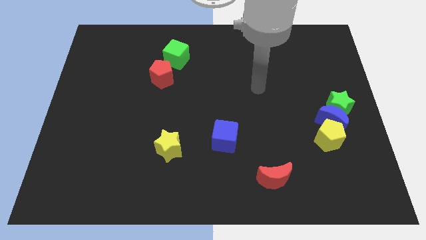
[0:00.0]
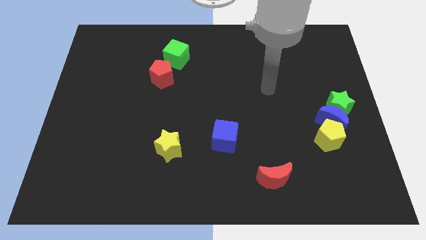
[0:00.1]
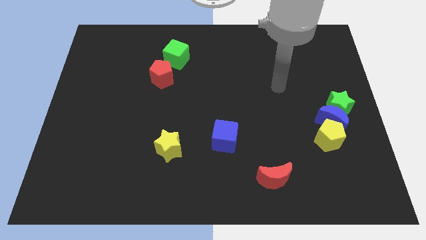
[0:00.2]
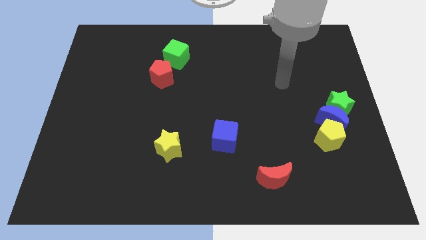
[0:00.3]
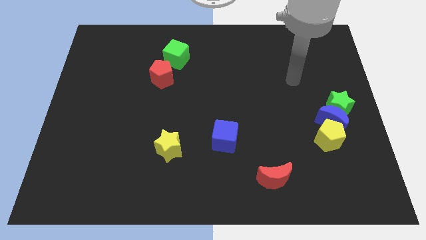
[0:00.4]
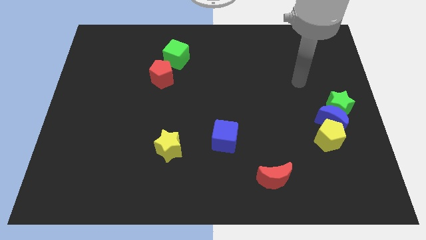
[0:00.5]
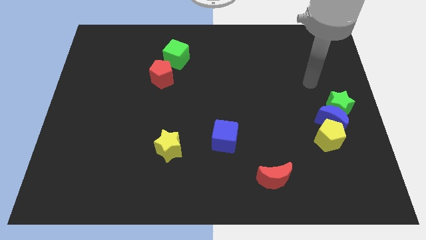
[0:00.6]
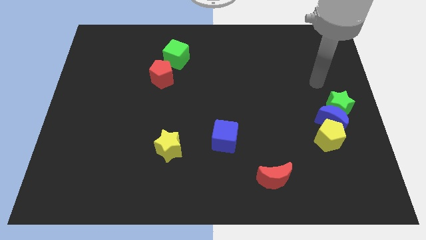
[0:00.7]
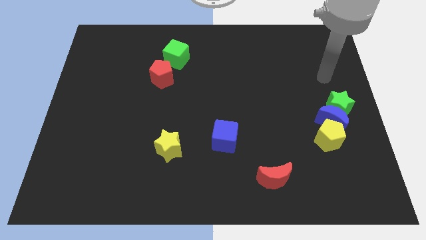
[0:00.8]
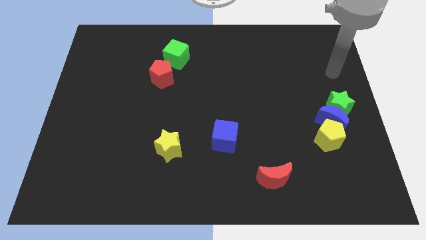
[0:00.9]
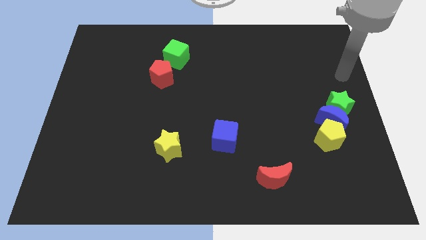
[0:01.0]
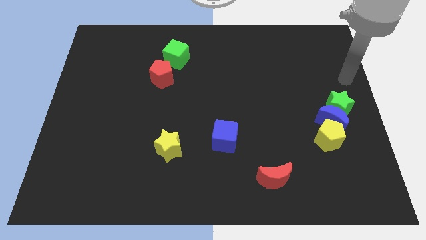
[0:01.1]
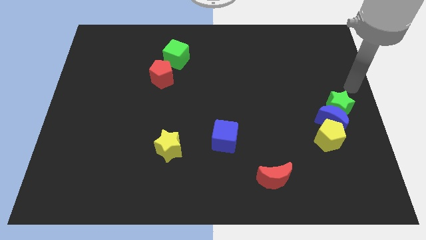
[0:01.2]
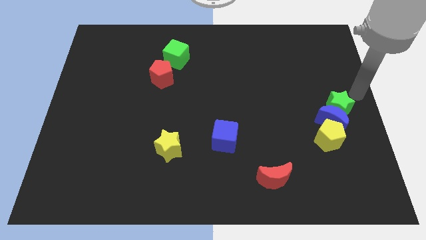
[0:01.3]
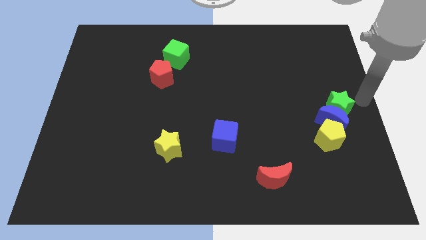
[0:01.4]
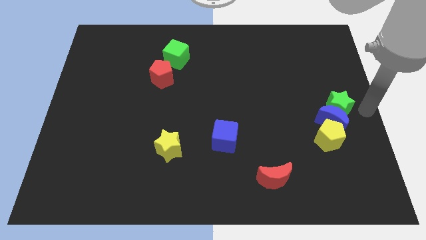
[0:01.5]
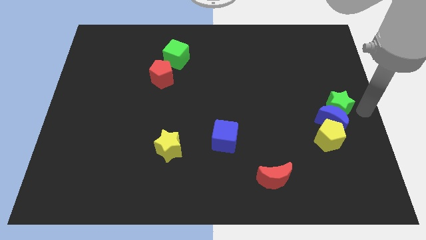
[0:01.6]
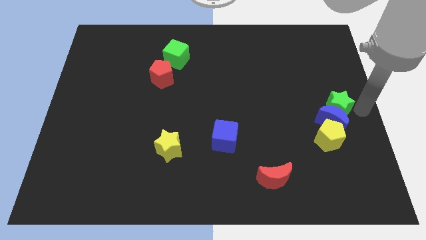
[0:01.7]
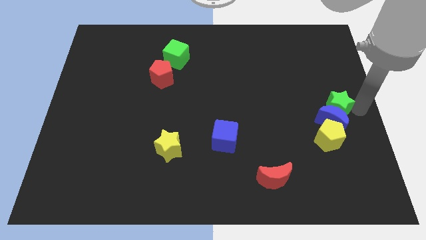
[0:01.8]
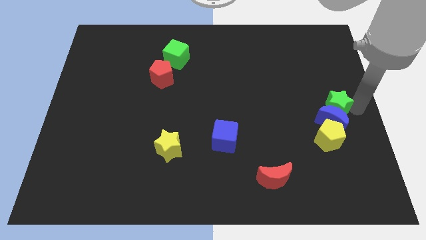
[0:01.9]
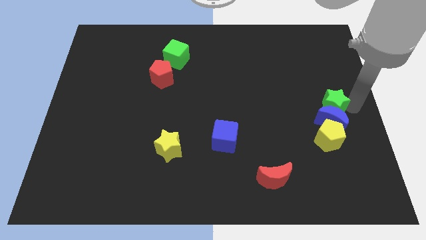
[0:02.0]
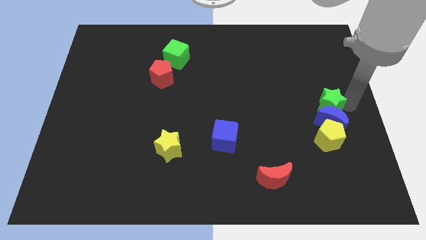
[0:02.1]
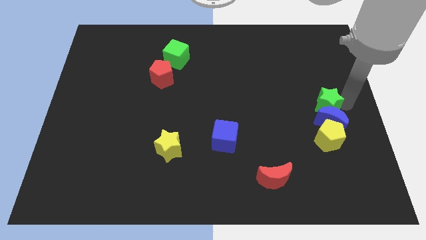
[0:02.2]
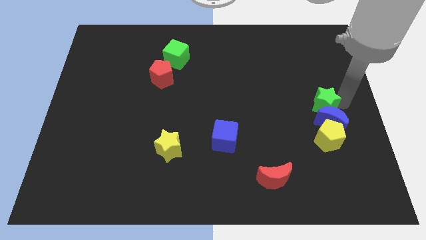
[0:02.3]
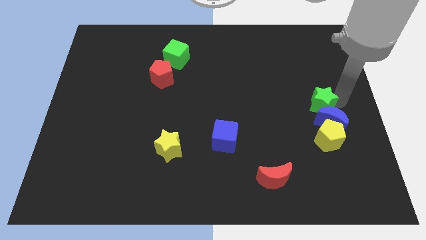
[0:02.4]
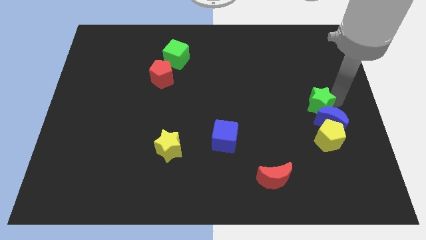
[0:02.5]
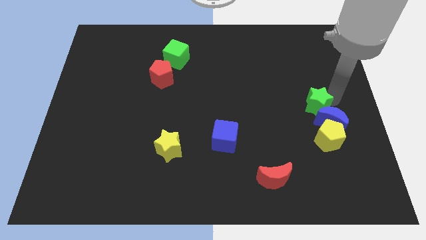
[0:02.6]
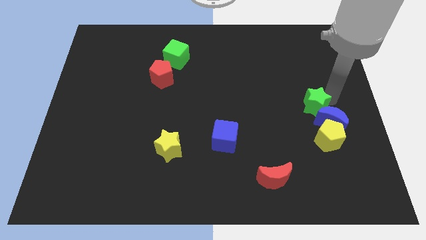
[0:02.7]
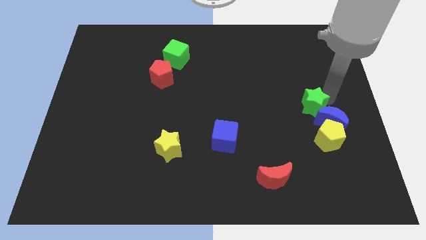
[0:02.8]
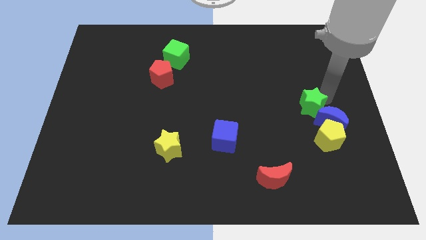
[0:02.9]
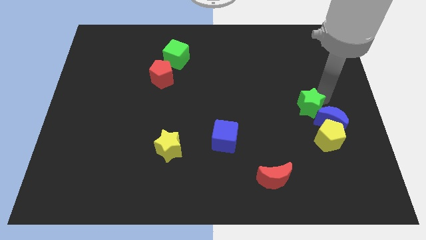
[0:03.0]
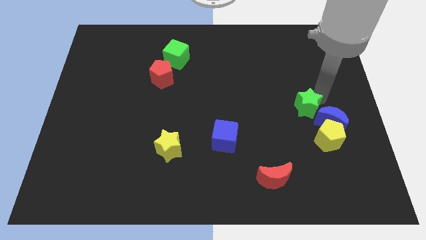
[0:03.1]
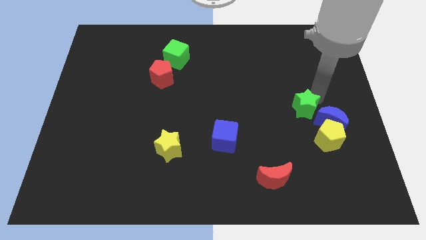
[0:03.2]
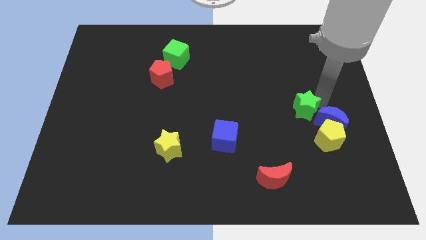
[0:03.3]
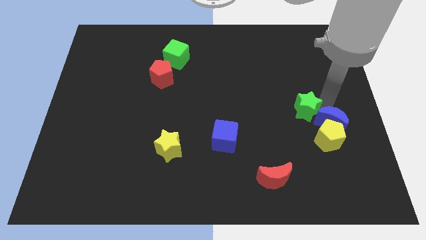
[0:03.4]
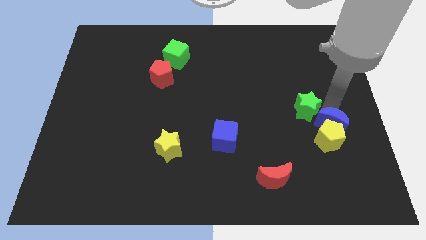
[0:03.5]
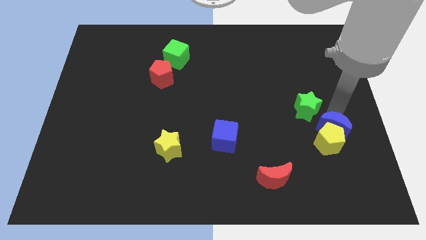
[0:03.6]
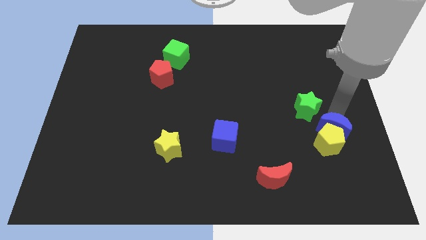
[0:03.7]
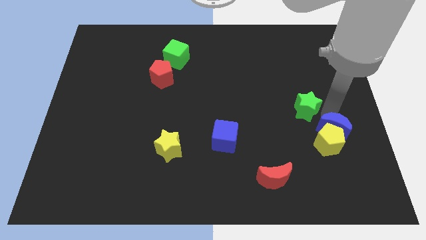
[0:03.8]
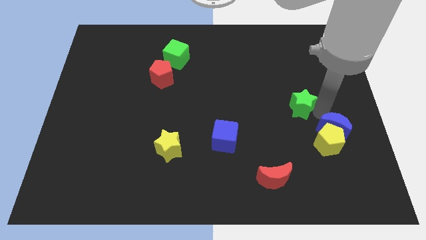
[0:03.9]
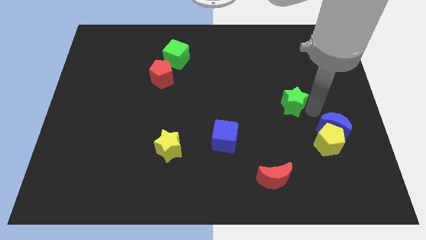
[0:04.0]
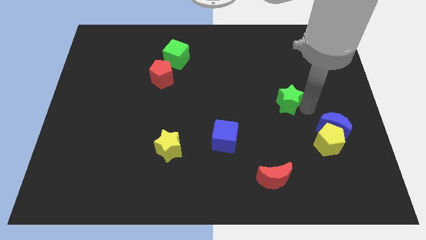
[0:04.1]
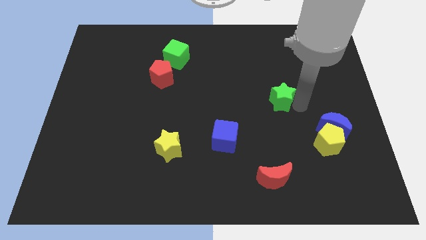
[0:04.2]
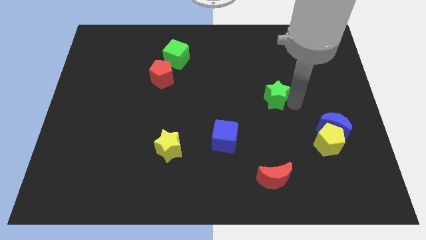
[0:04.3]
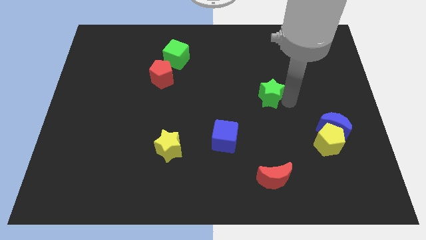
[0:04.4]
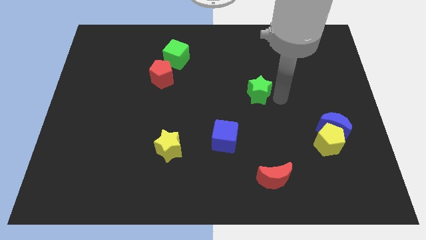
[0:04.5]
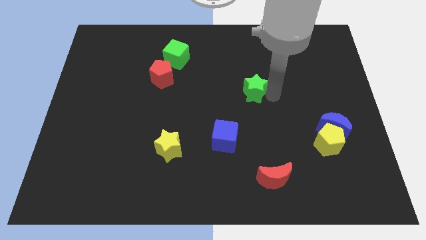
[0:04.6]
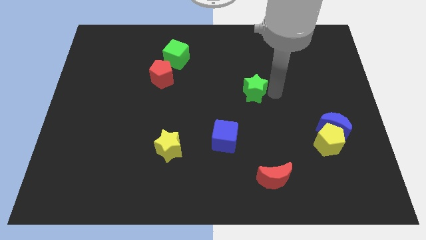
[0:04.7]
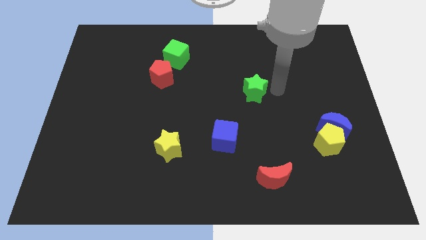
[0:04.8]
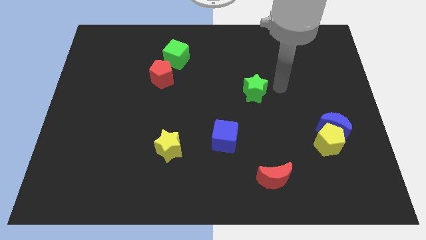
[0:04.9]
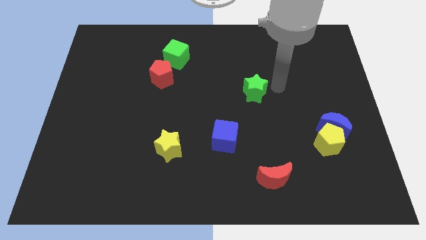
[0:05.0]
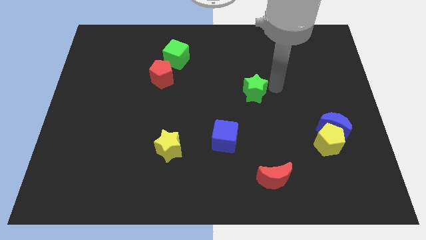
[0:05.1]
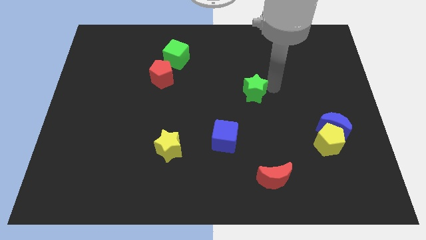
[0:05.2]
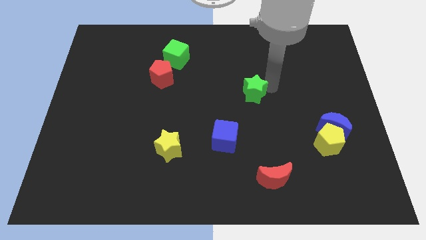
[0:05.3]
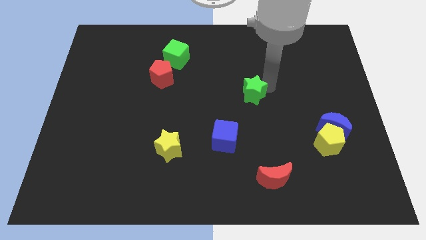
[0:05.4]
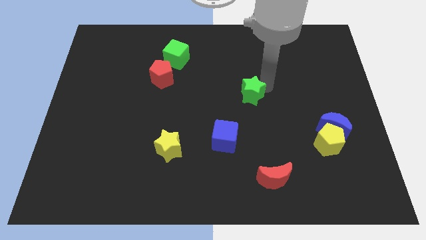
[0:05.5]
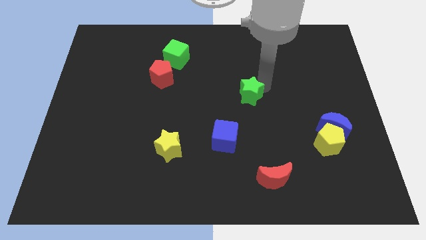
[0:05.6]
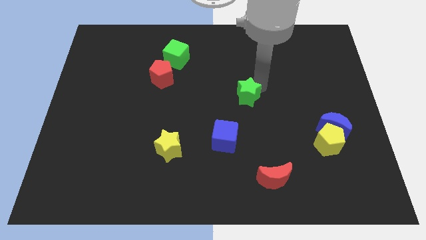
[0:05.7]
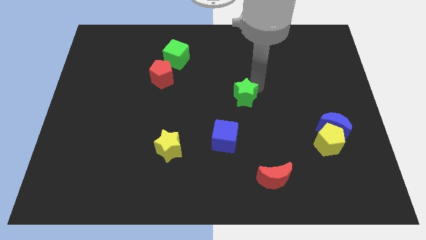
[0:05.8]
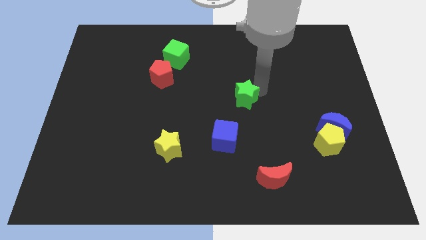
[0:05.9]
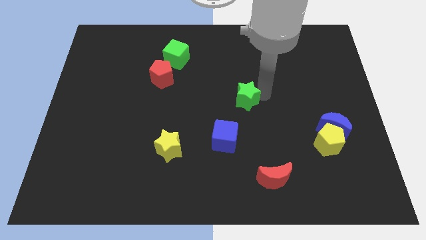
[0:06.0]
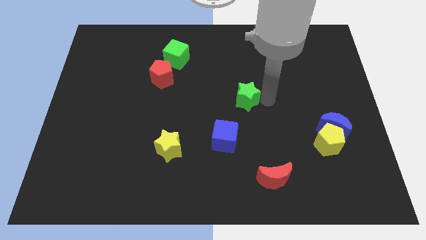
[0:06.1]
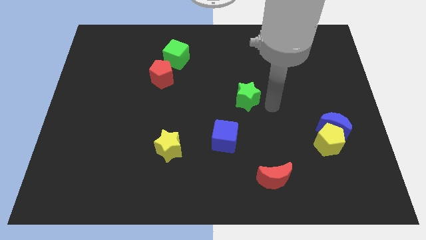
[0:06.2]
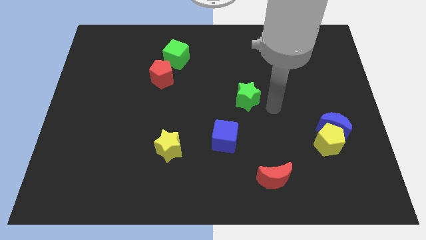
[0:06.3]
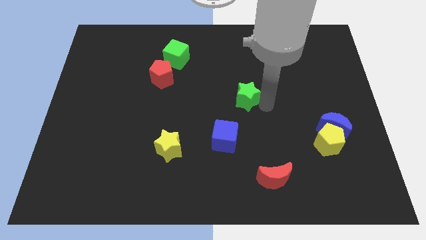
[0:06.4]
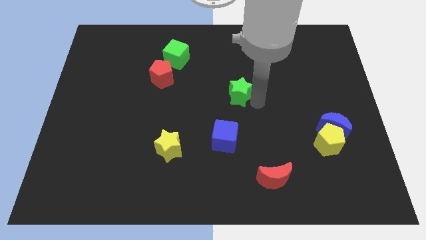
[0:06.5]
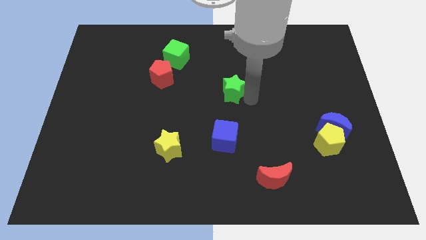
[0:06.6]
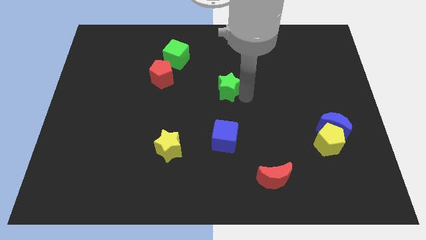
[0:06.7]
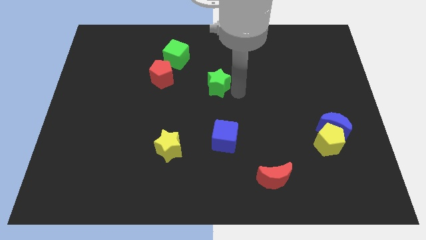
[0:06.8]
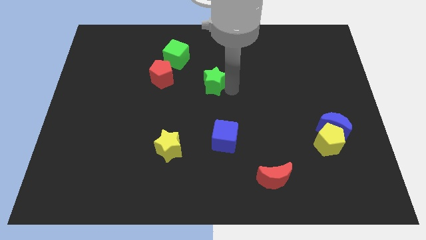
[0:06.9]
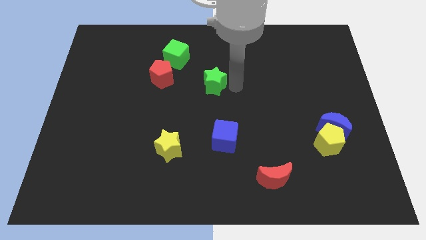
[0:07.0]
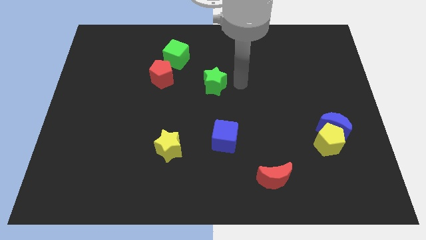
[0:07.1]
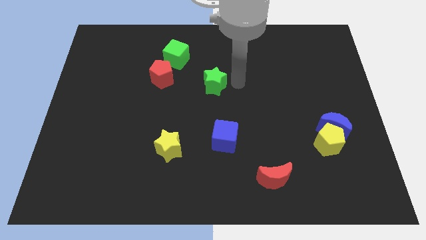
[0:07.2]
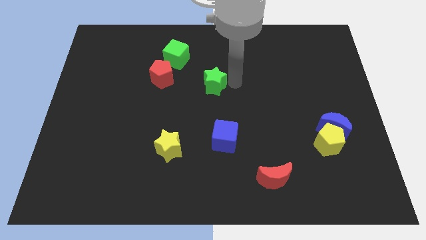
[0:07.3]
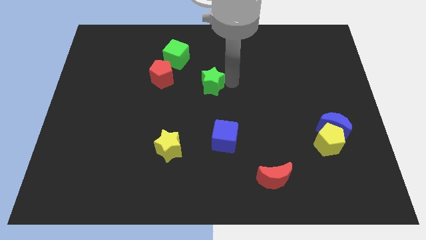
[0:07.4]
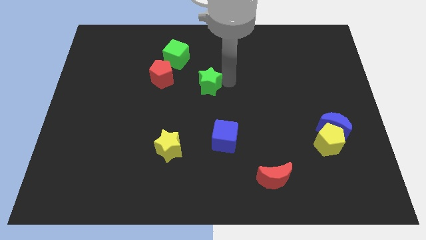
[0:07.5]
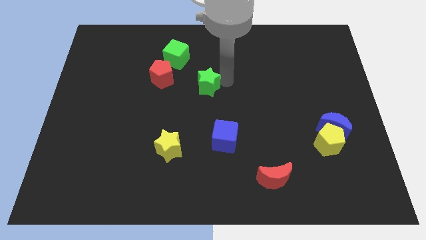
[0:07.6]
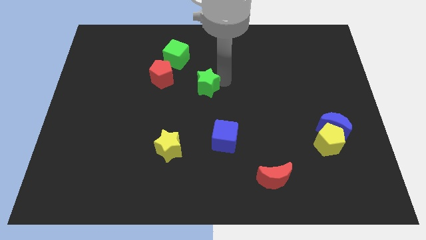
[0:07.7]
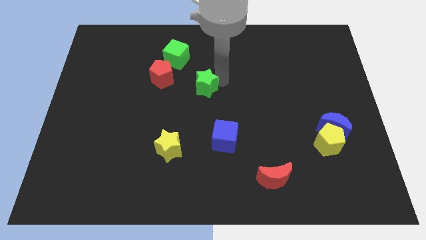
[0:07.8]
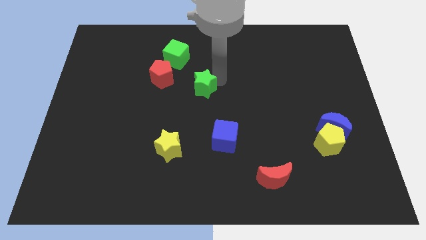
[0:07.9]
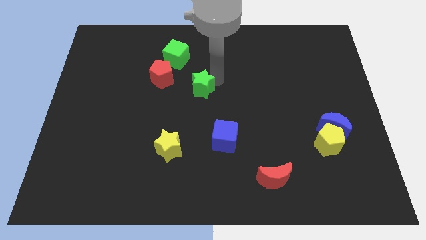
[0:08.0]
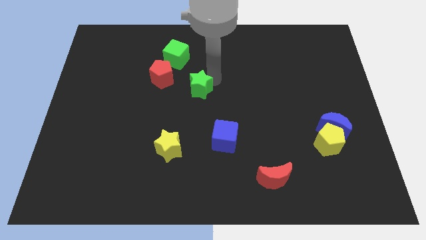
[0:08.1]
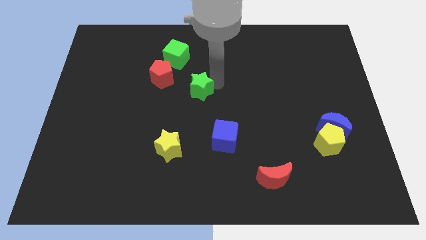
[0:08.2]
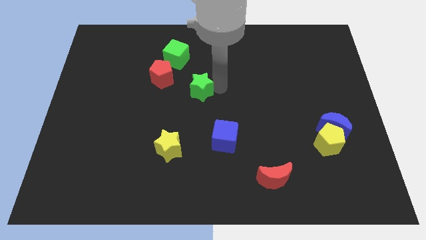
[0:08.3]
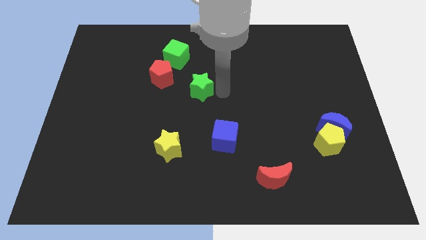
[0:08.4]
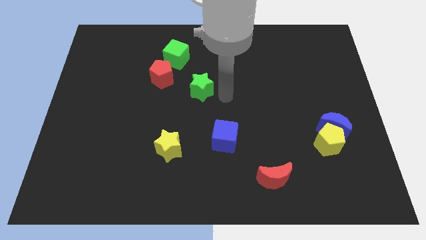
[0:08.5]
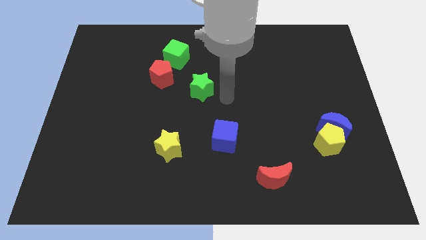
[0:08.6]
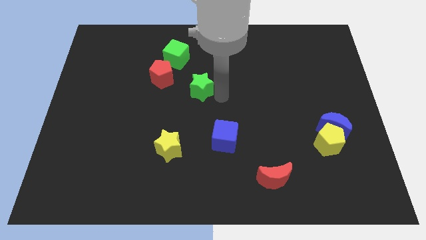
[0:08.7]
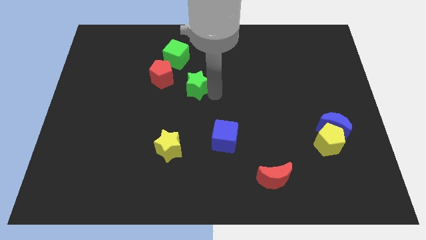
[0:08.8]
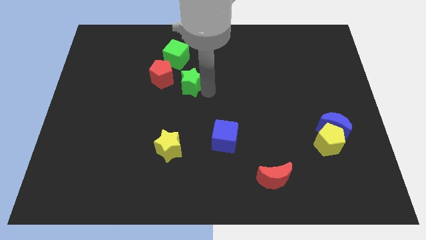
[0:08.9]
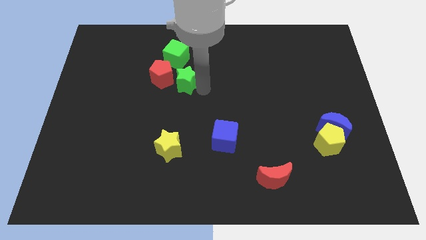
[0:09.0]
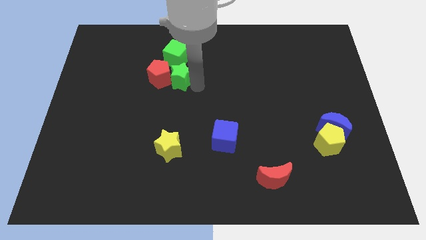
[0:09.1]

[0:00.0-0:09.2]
push the green star to the red pentagon
